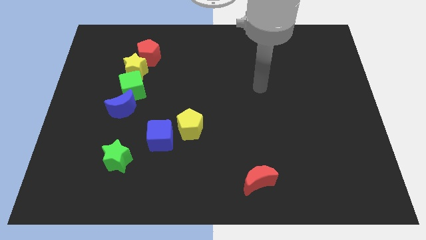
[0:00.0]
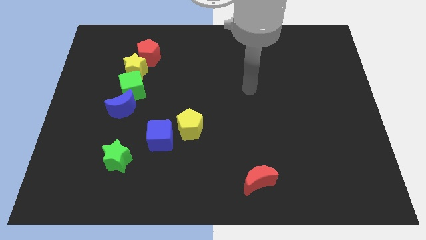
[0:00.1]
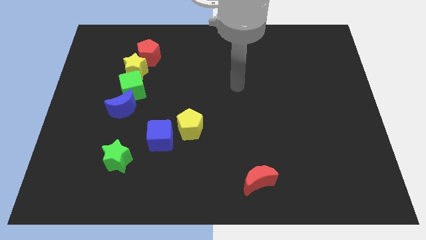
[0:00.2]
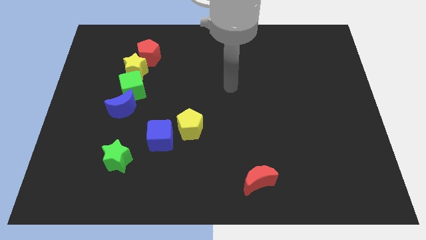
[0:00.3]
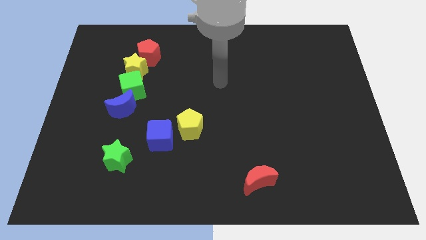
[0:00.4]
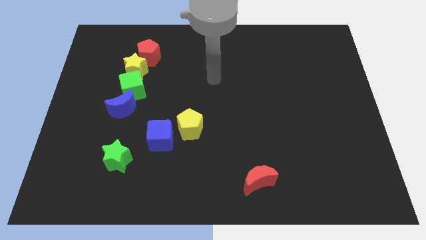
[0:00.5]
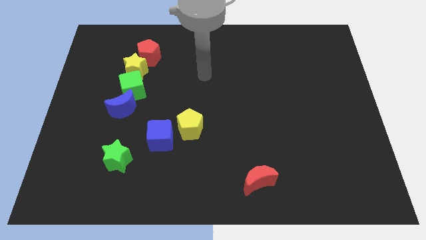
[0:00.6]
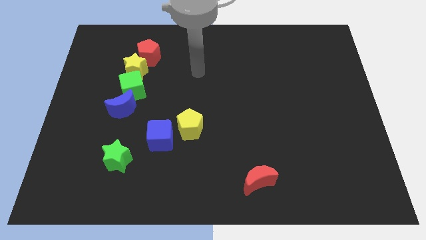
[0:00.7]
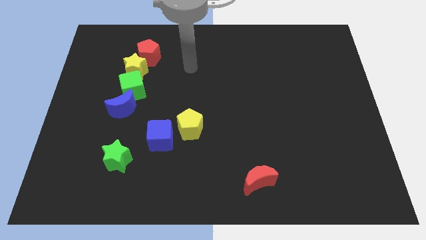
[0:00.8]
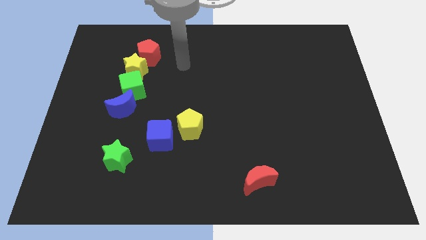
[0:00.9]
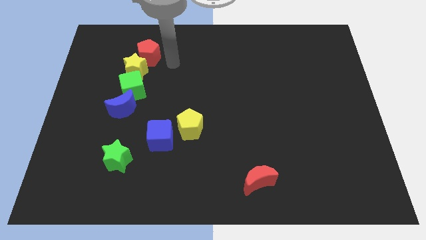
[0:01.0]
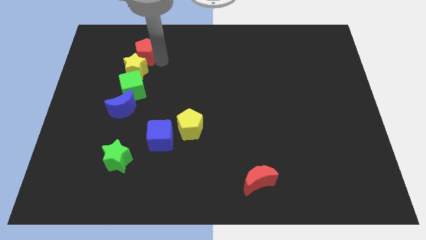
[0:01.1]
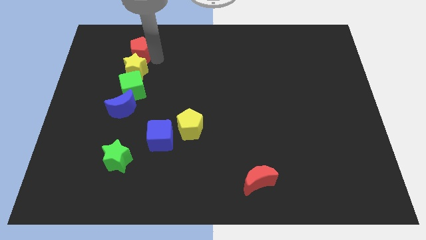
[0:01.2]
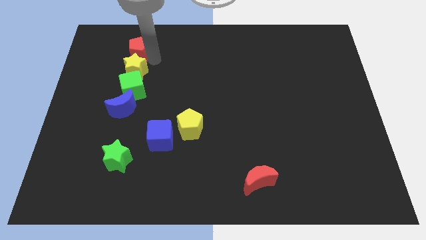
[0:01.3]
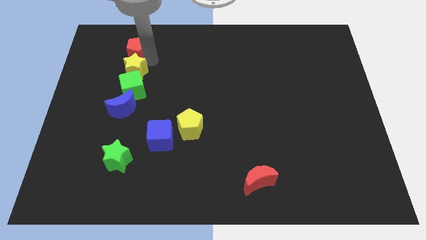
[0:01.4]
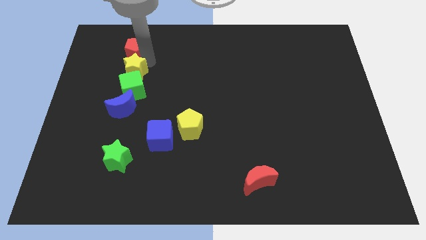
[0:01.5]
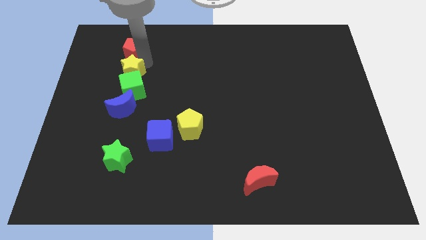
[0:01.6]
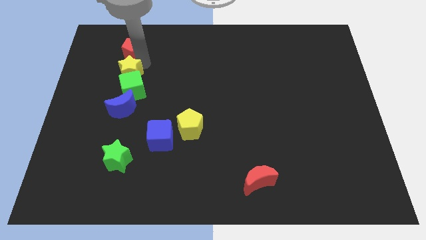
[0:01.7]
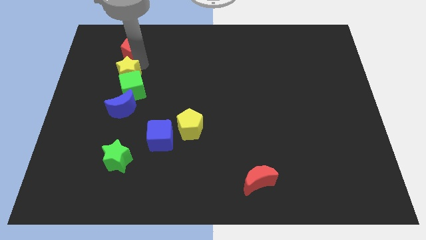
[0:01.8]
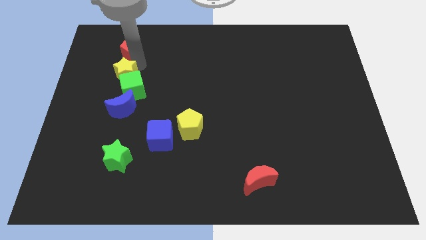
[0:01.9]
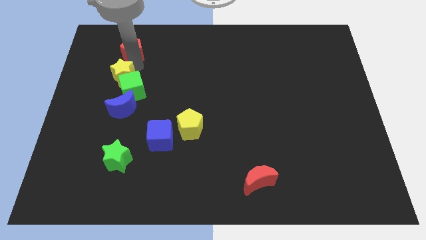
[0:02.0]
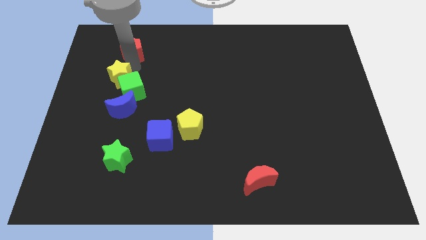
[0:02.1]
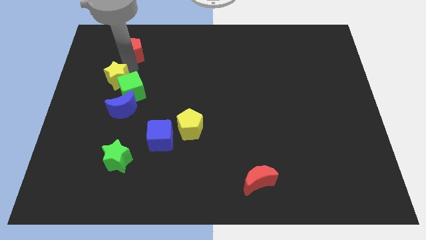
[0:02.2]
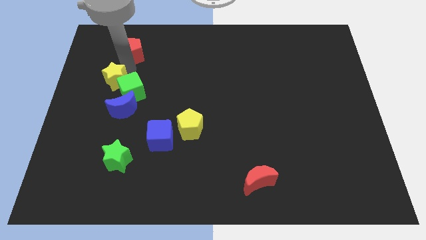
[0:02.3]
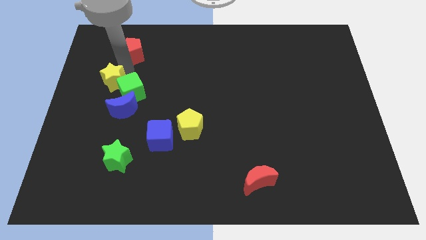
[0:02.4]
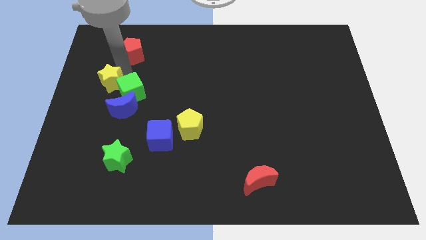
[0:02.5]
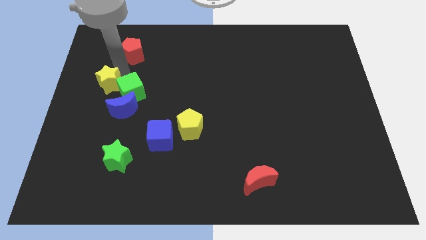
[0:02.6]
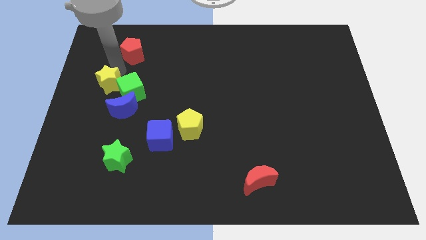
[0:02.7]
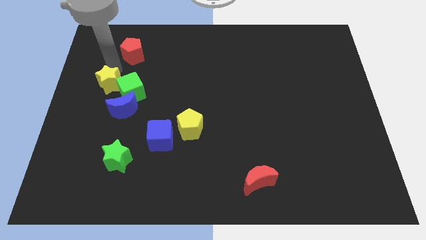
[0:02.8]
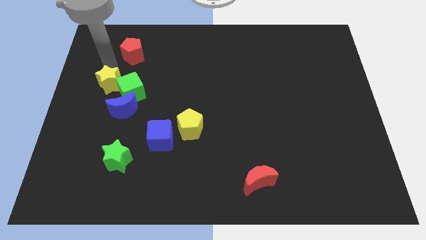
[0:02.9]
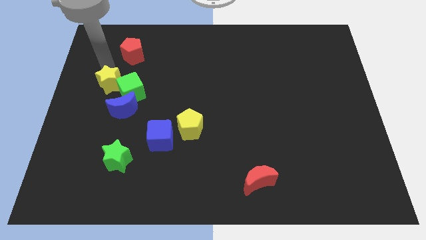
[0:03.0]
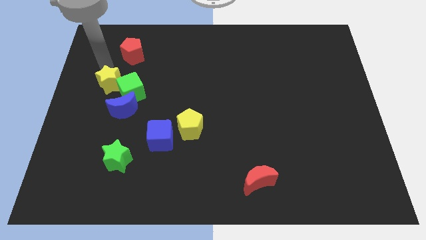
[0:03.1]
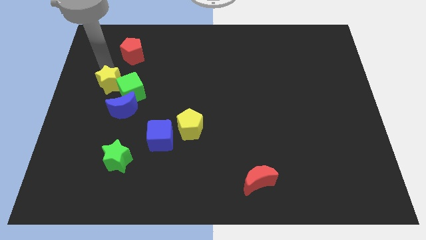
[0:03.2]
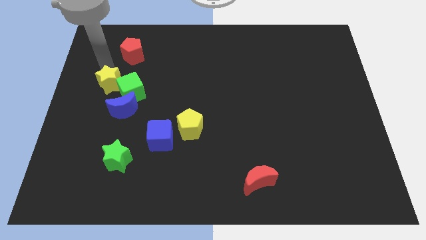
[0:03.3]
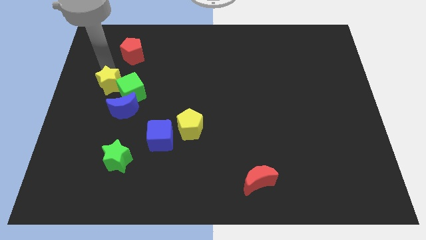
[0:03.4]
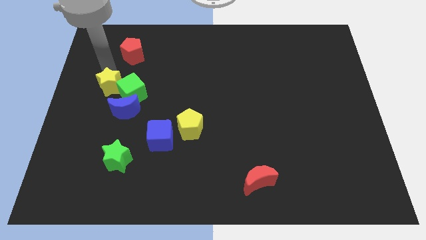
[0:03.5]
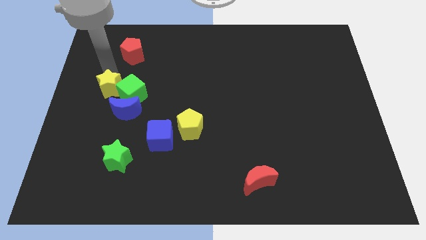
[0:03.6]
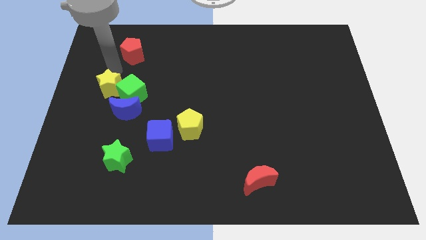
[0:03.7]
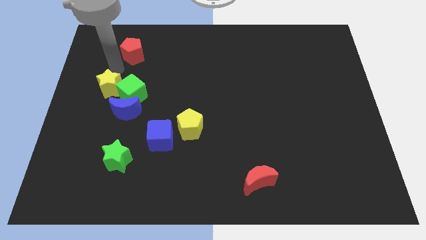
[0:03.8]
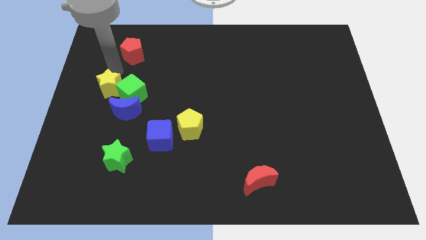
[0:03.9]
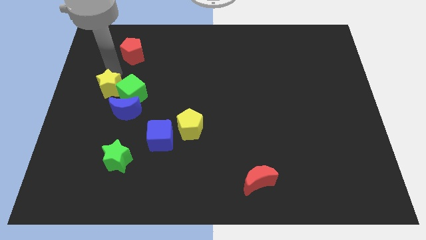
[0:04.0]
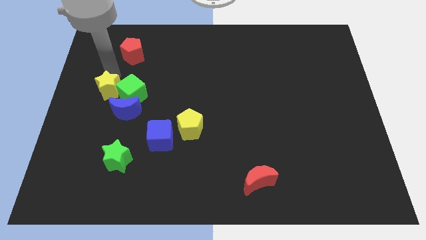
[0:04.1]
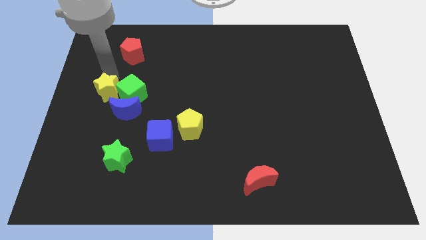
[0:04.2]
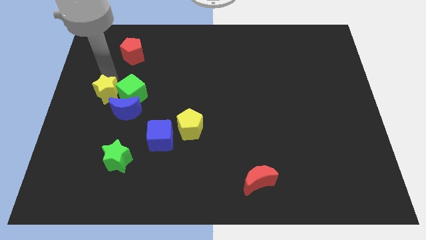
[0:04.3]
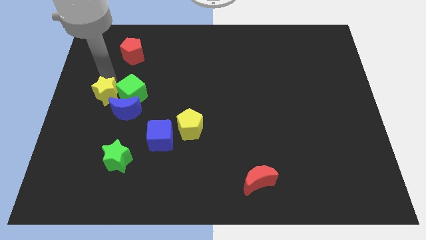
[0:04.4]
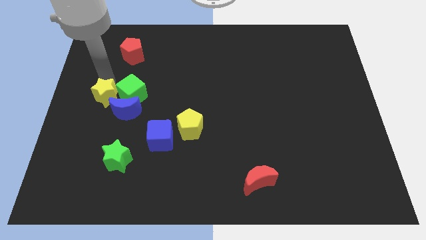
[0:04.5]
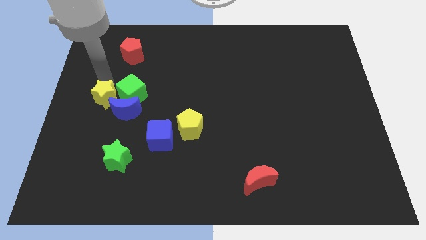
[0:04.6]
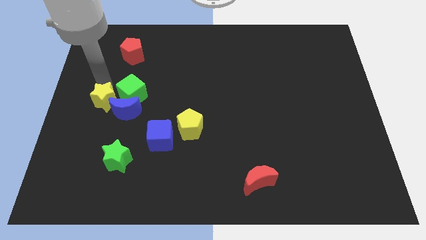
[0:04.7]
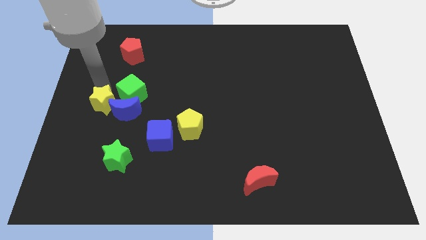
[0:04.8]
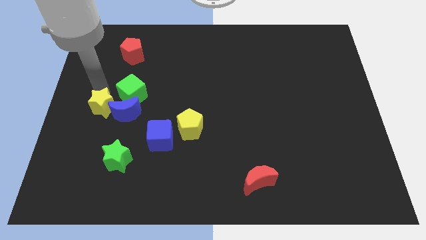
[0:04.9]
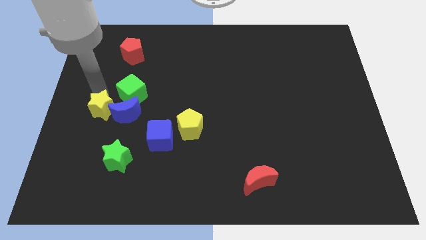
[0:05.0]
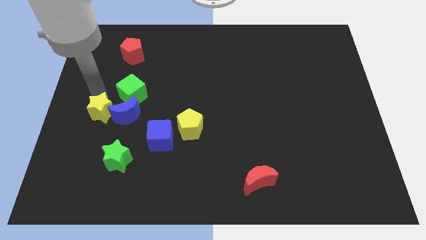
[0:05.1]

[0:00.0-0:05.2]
slide the yellow star to the bottom left of the blue moon

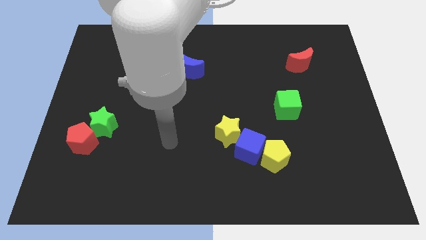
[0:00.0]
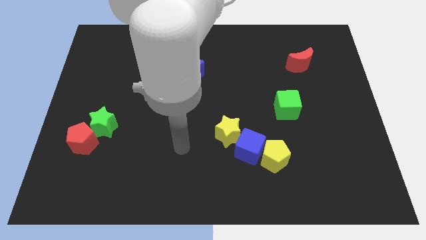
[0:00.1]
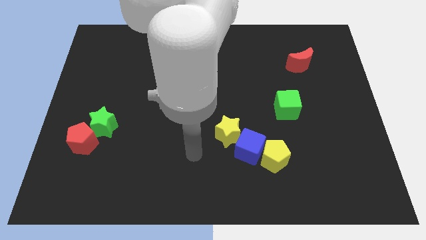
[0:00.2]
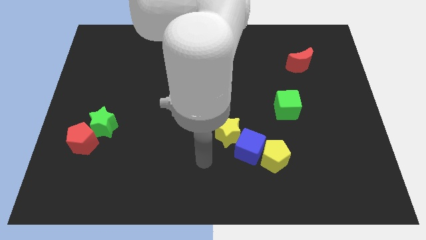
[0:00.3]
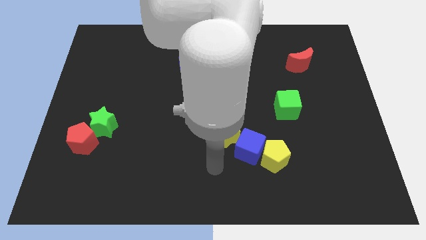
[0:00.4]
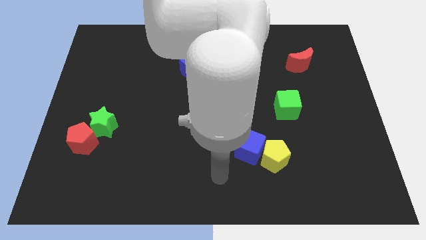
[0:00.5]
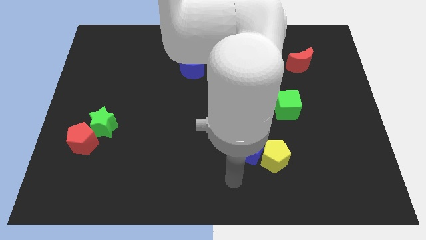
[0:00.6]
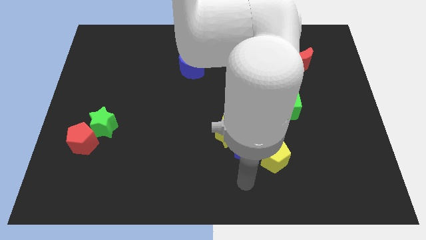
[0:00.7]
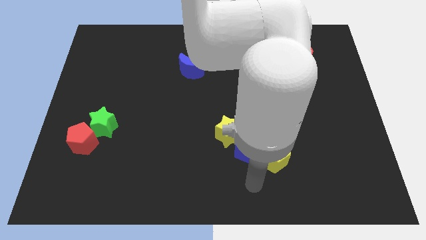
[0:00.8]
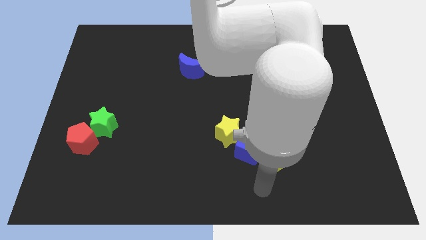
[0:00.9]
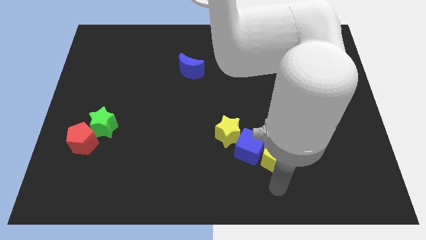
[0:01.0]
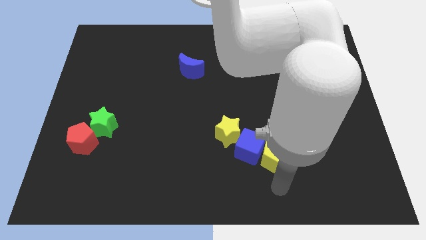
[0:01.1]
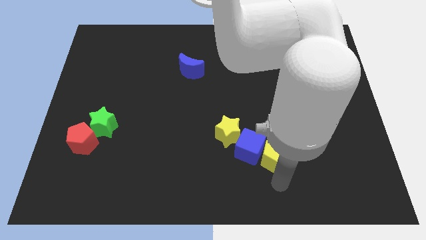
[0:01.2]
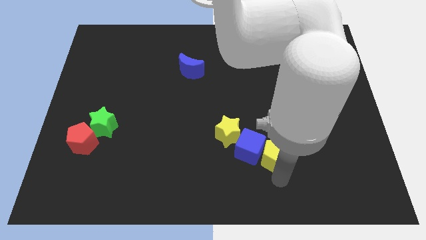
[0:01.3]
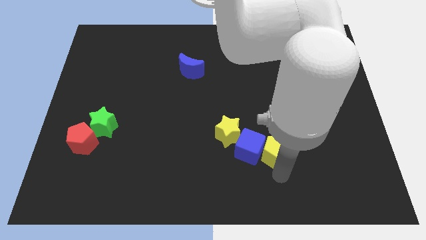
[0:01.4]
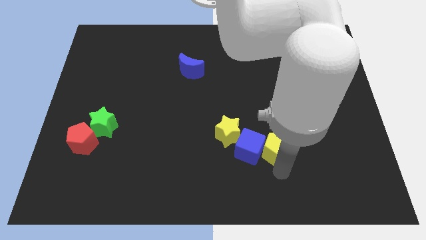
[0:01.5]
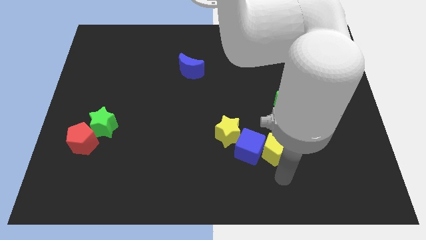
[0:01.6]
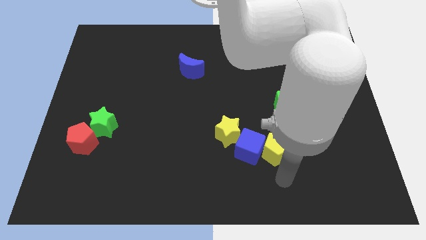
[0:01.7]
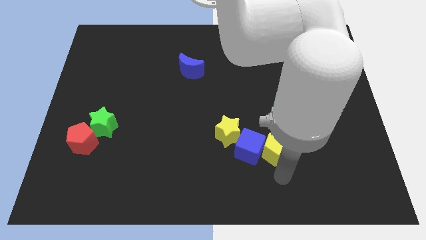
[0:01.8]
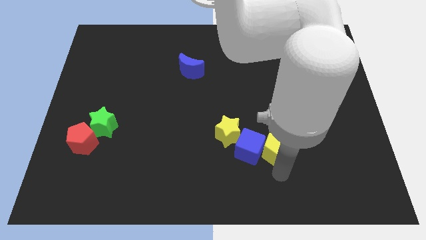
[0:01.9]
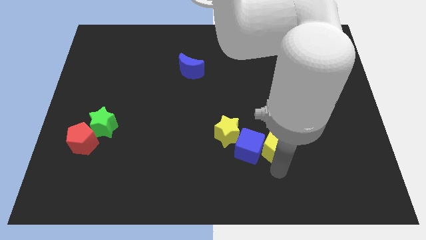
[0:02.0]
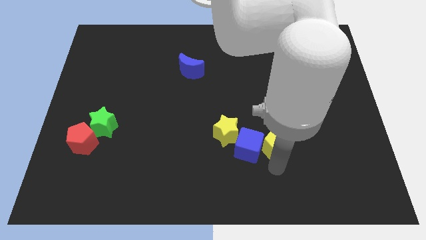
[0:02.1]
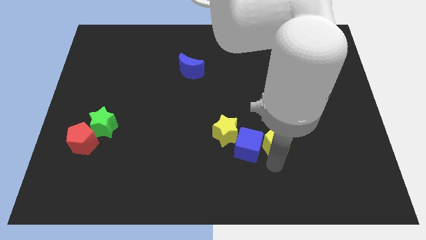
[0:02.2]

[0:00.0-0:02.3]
move the yellow pentagon to the bottom left of the green cube
